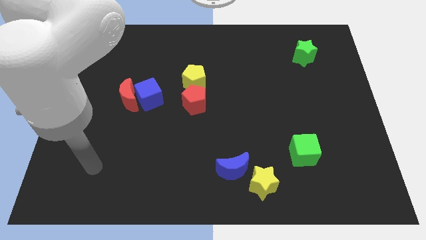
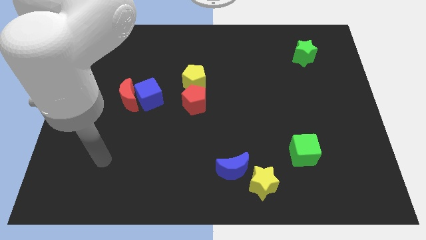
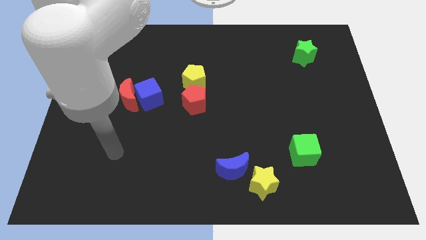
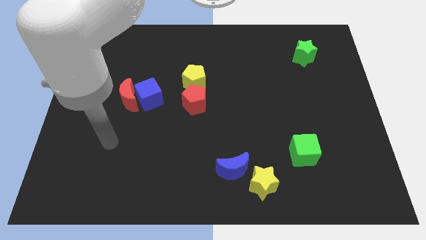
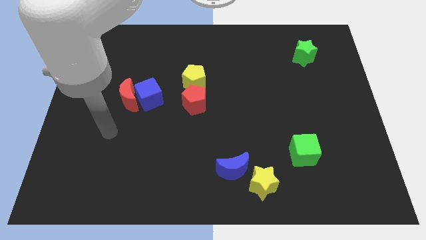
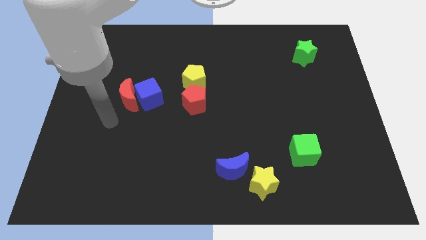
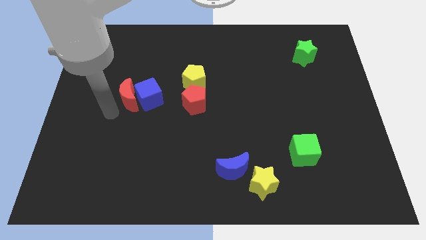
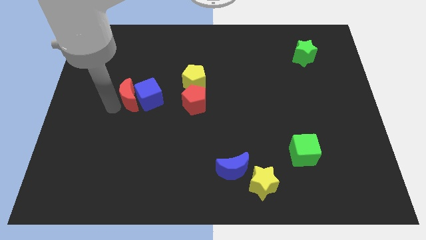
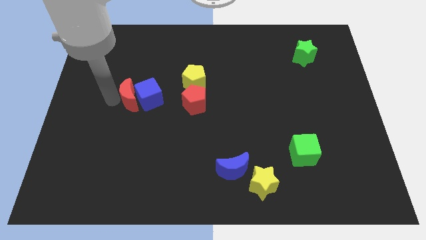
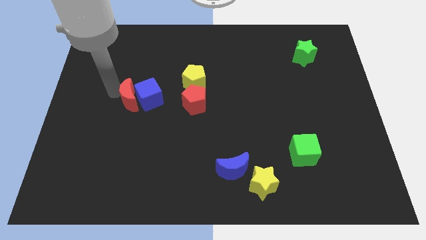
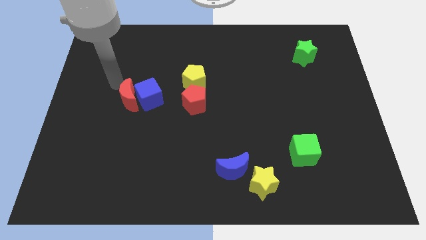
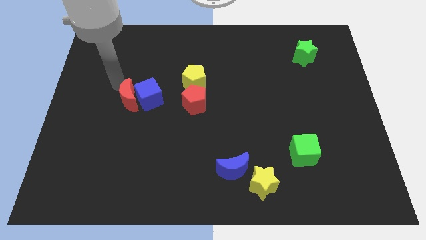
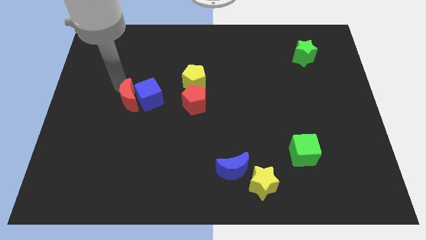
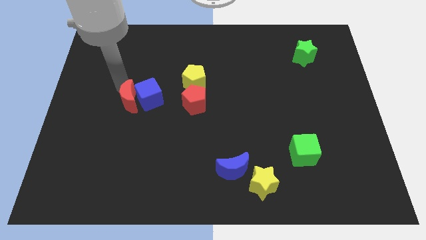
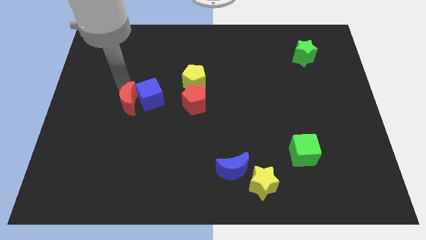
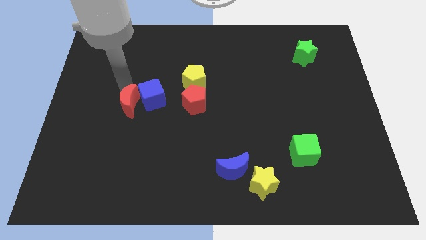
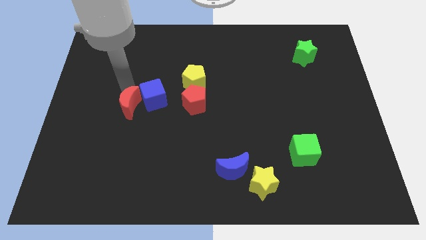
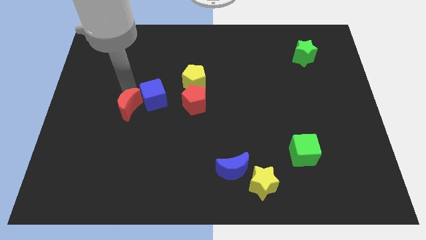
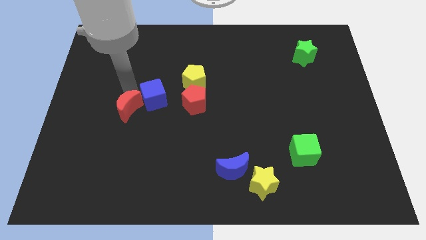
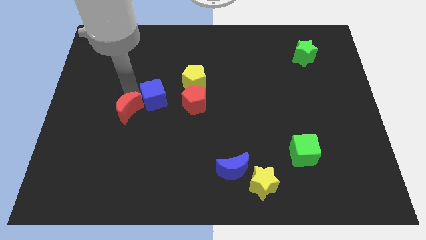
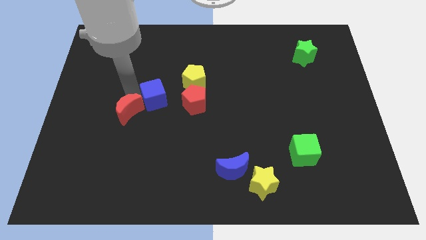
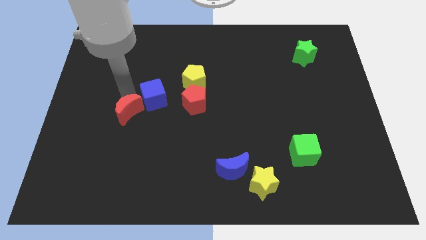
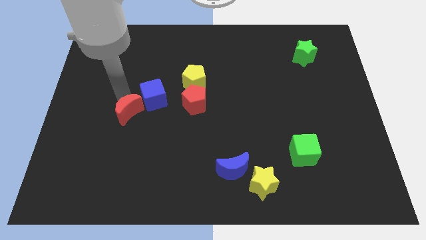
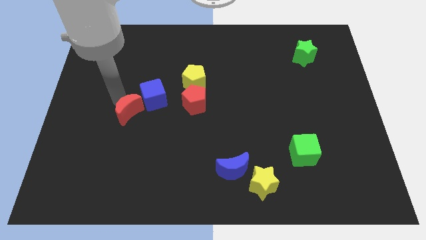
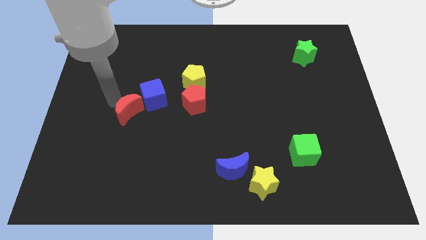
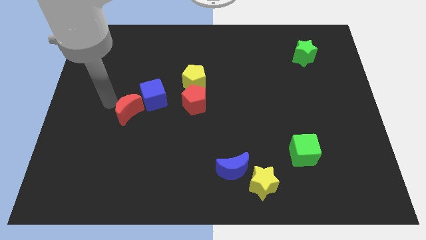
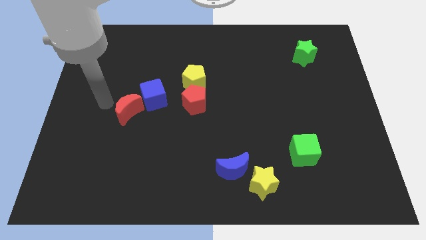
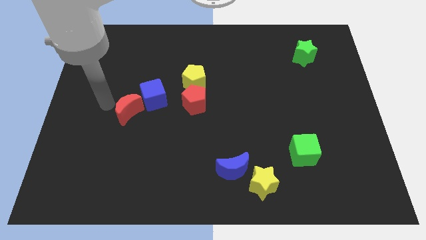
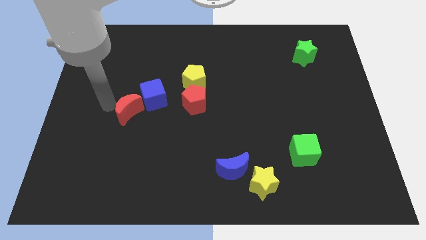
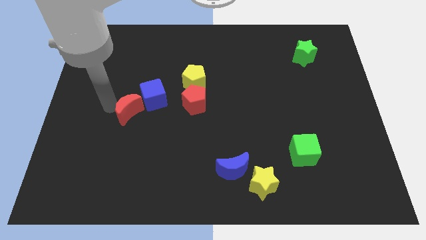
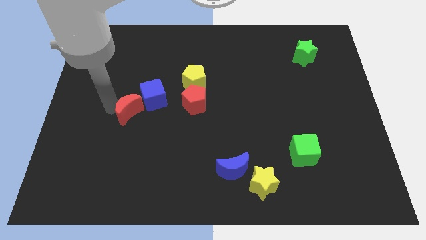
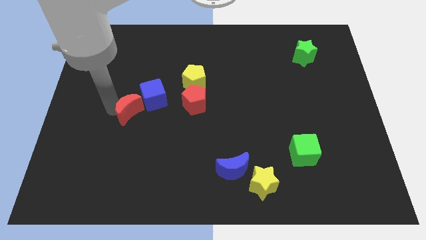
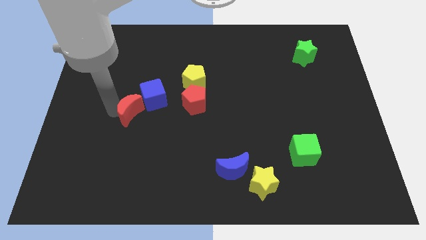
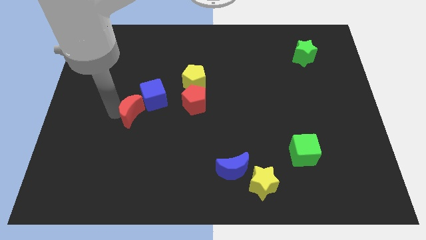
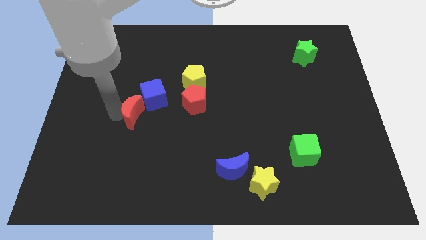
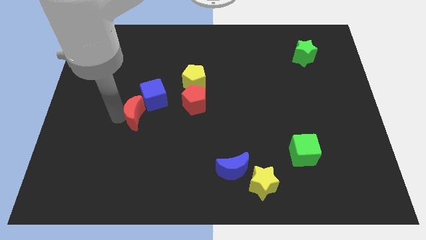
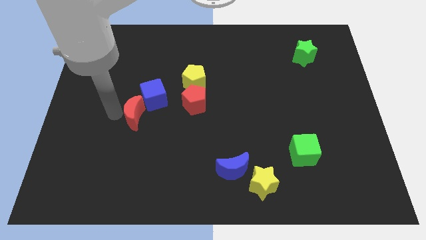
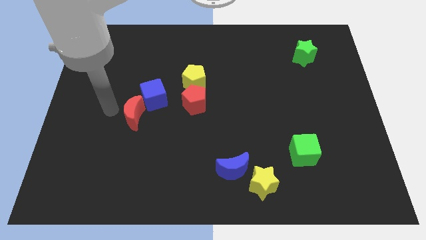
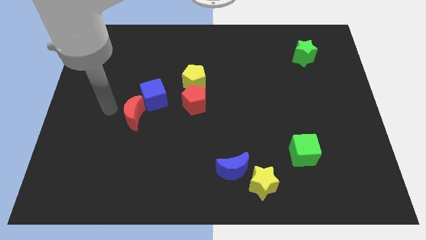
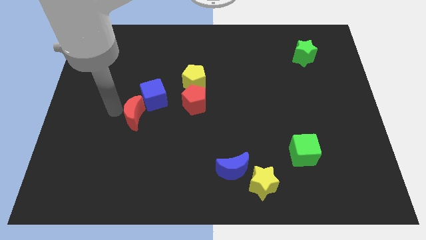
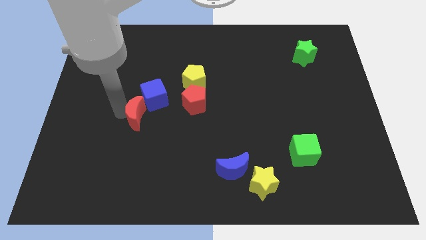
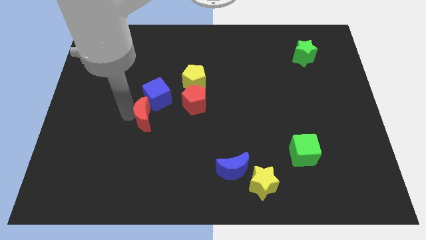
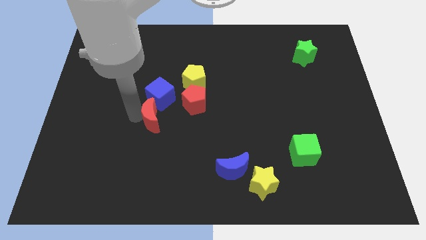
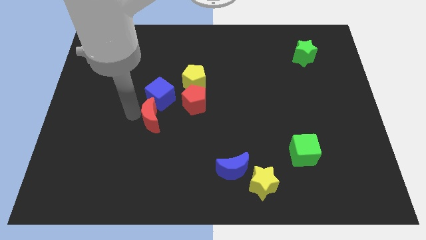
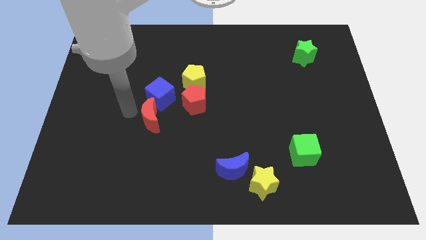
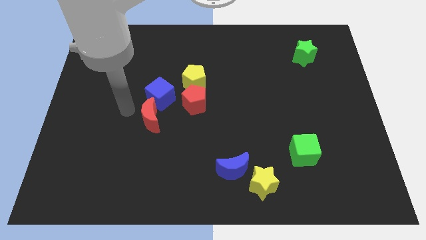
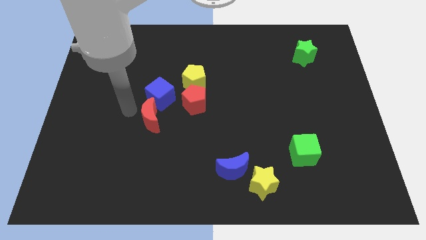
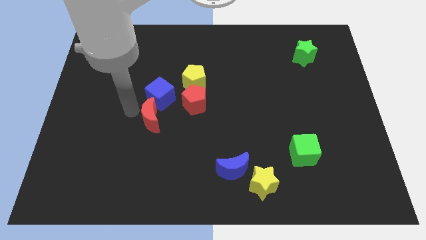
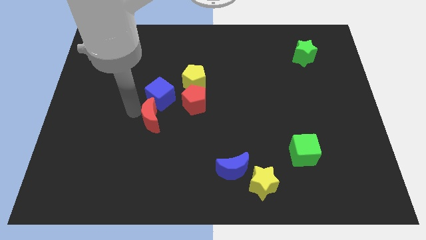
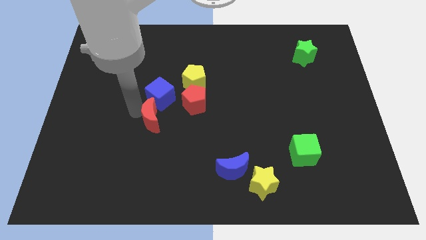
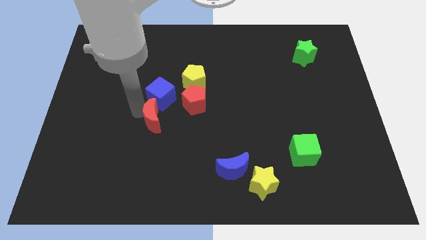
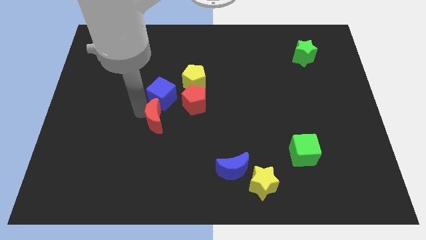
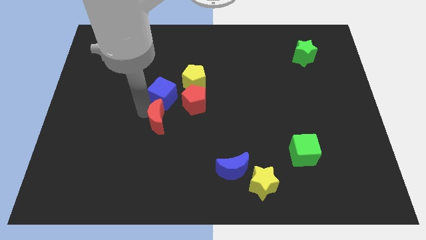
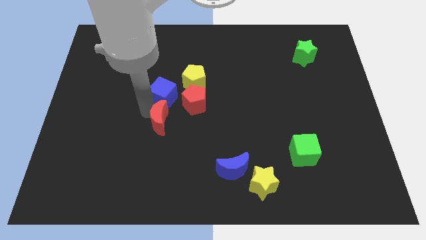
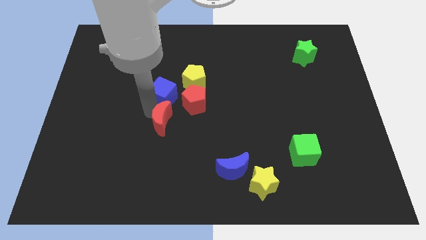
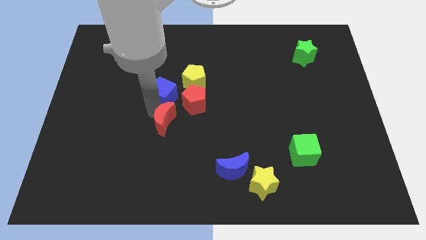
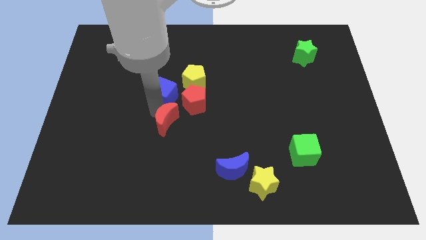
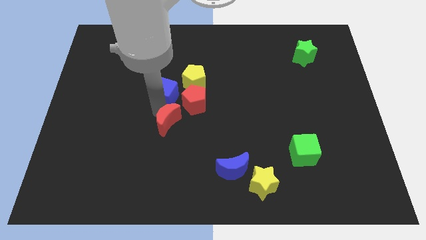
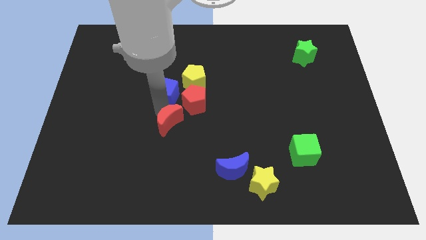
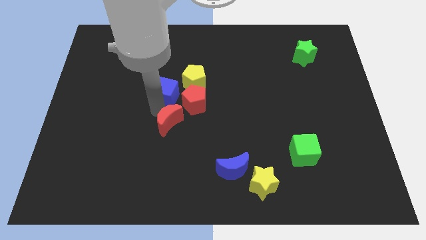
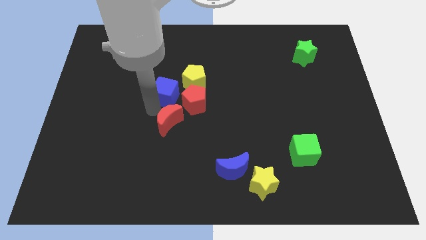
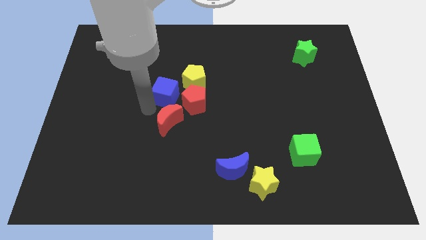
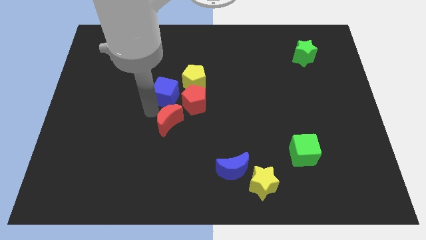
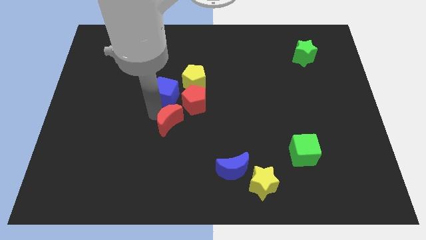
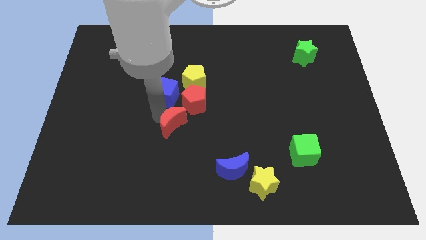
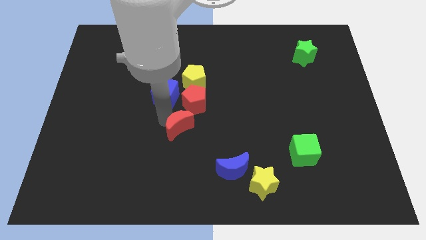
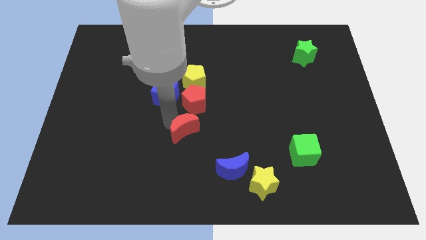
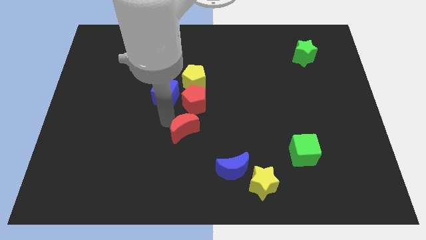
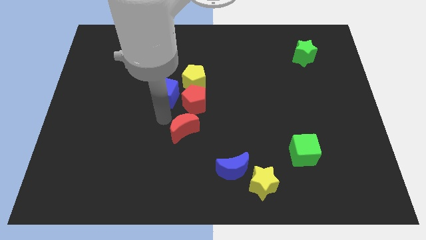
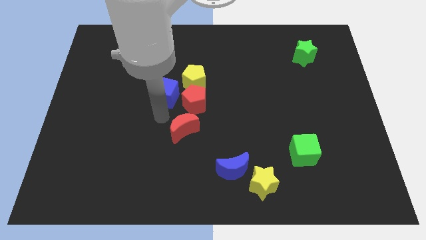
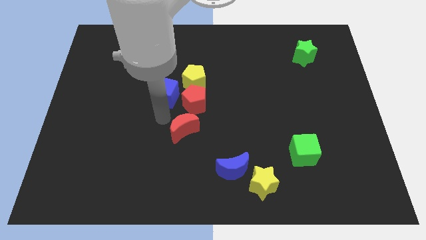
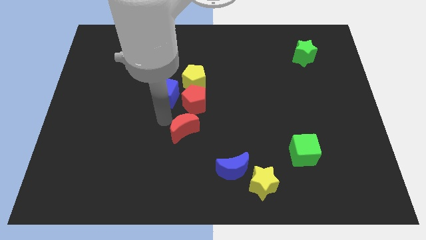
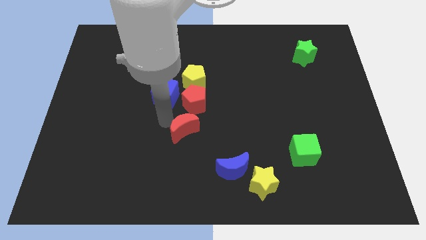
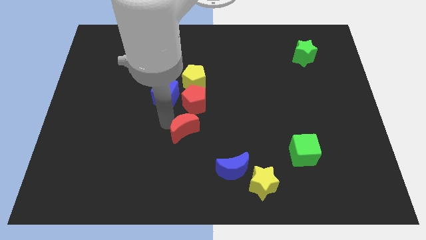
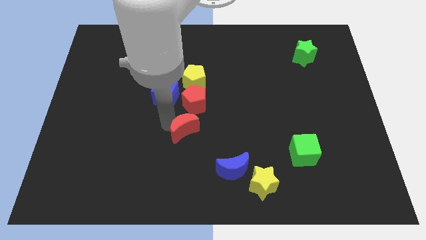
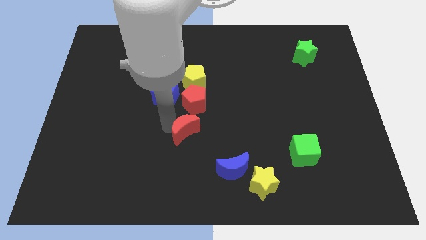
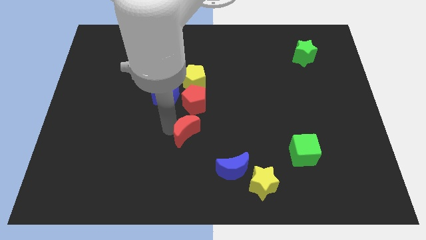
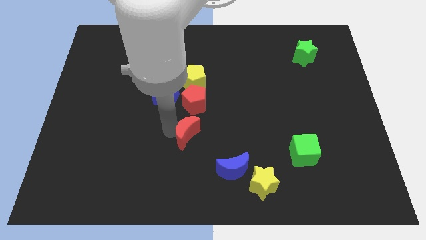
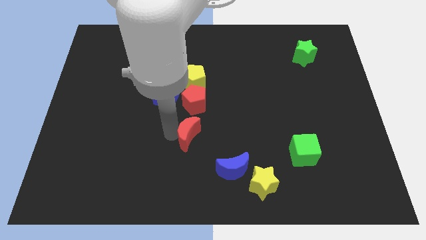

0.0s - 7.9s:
push the red moon diagonally up and to the left of the blue moon
